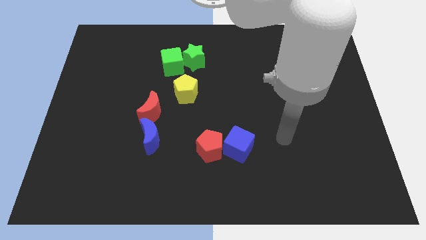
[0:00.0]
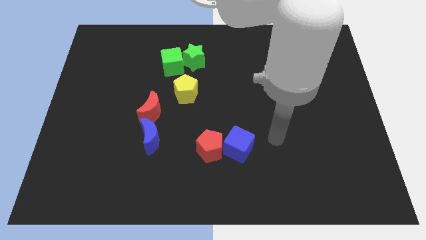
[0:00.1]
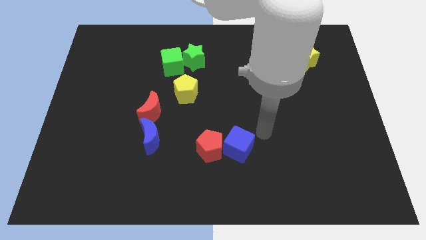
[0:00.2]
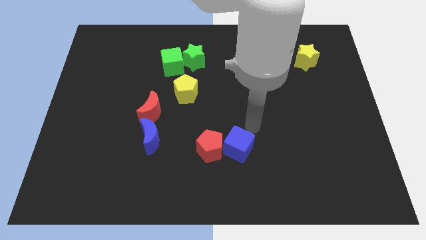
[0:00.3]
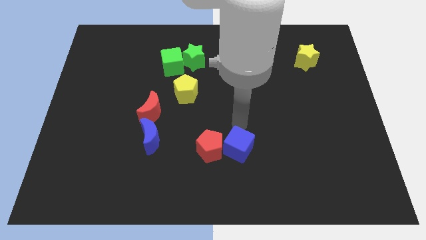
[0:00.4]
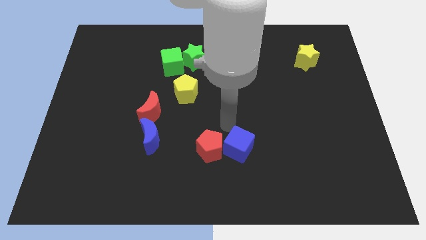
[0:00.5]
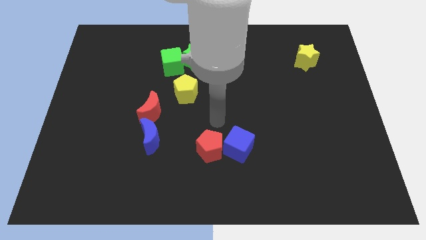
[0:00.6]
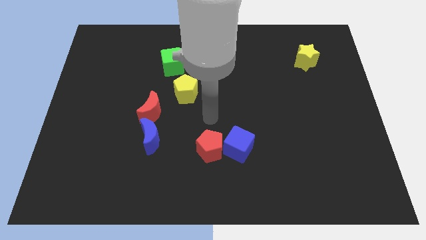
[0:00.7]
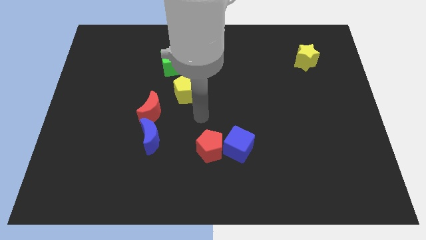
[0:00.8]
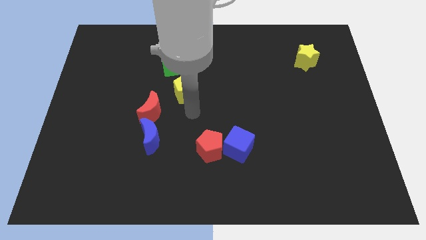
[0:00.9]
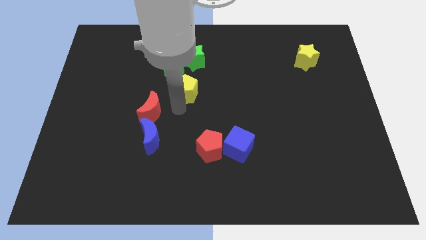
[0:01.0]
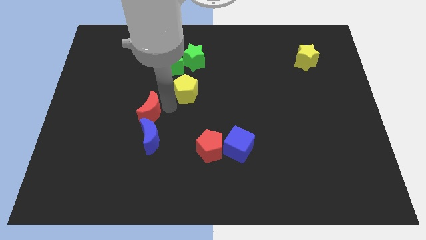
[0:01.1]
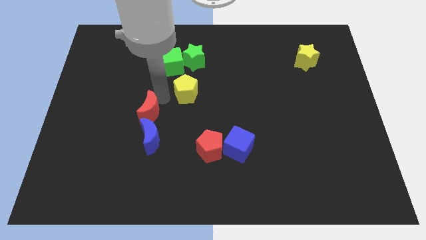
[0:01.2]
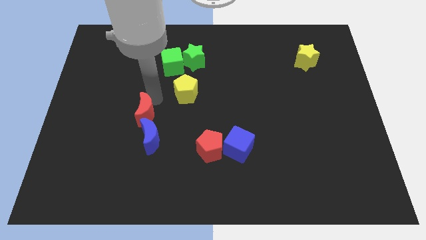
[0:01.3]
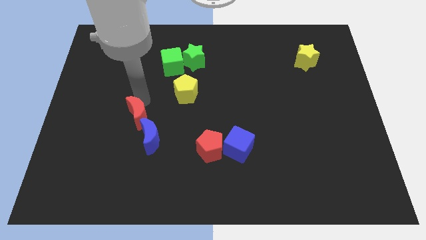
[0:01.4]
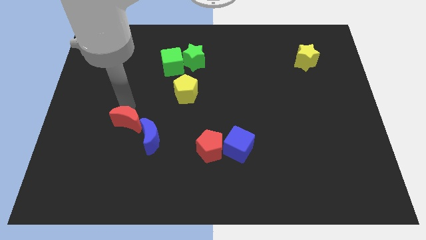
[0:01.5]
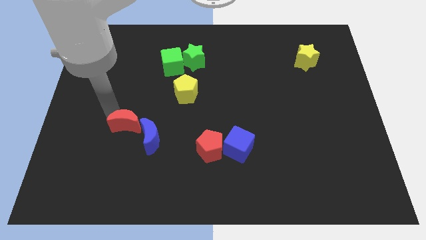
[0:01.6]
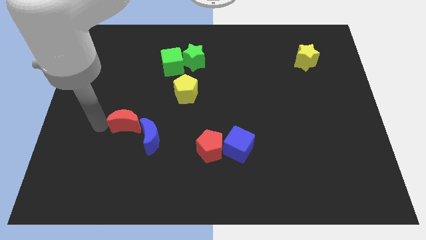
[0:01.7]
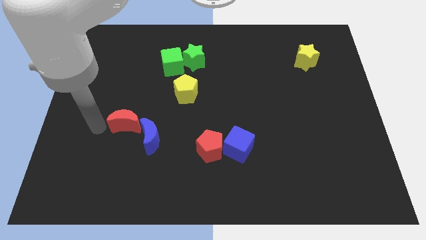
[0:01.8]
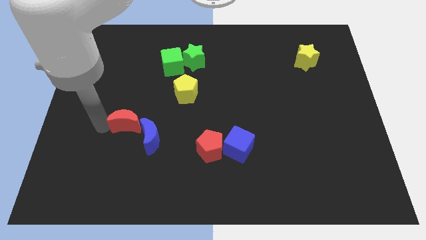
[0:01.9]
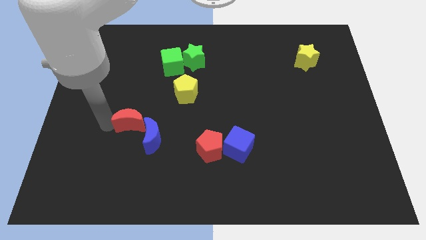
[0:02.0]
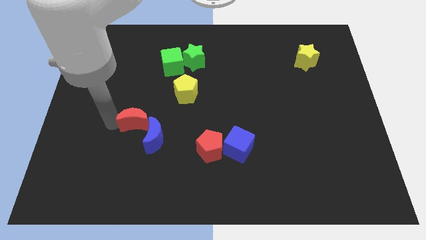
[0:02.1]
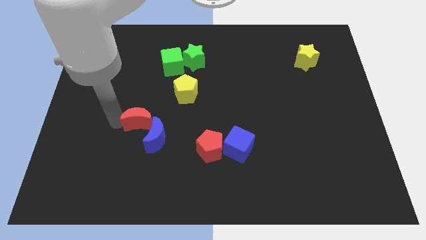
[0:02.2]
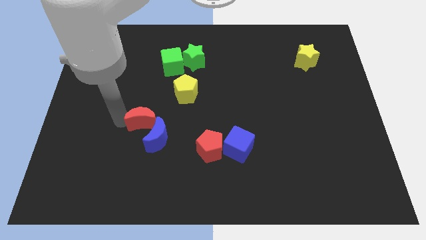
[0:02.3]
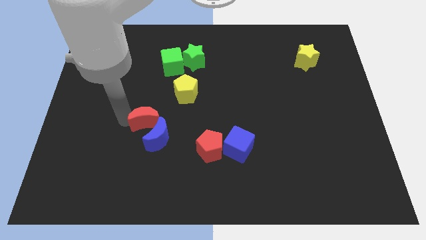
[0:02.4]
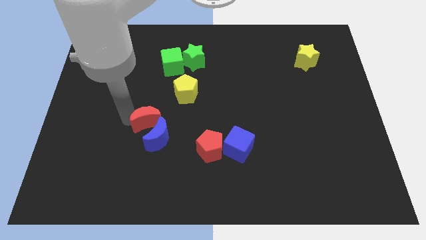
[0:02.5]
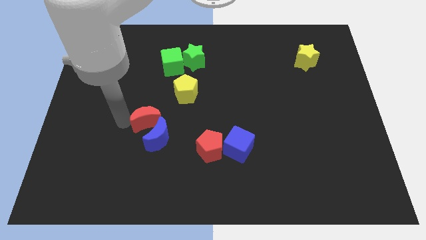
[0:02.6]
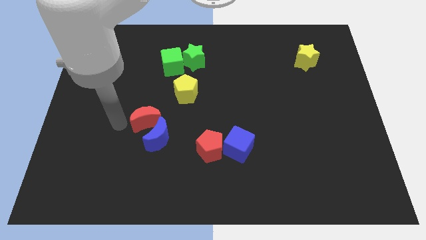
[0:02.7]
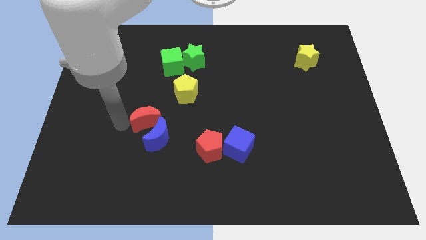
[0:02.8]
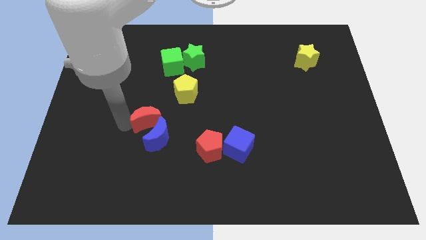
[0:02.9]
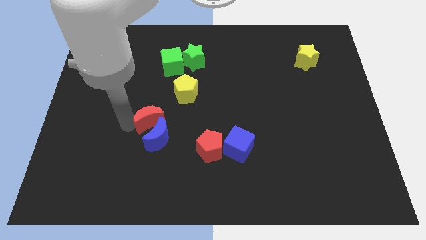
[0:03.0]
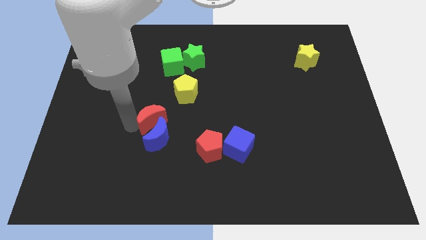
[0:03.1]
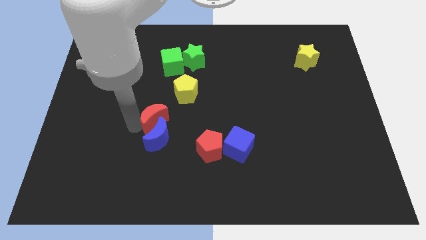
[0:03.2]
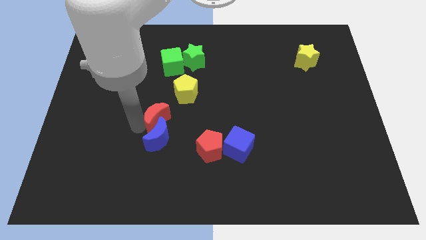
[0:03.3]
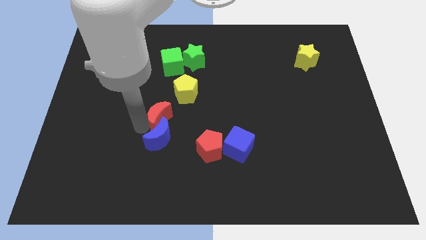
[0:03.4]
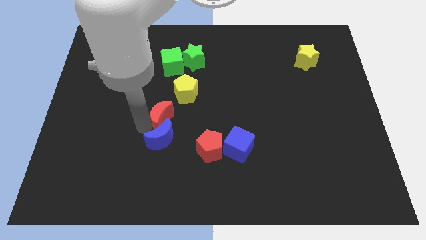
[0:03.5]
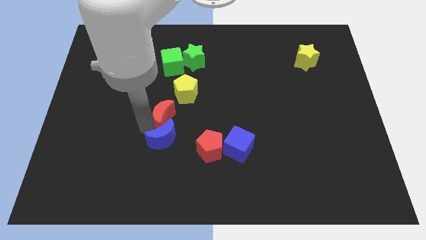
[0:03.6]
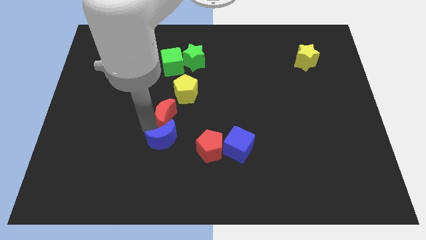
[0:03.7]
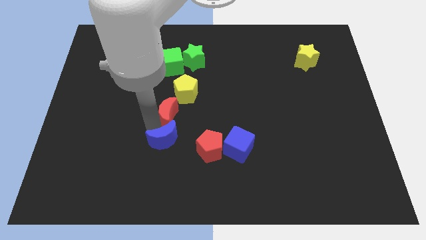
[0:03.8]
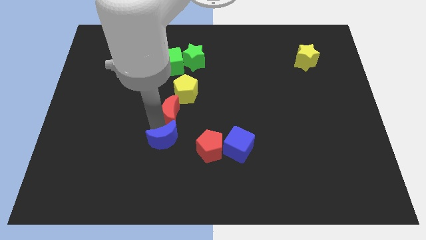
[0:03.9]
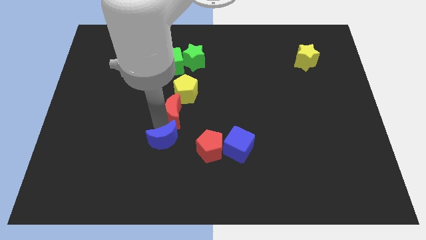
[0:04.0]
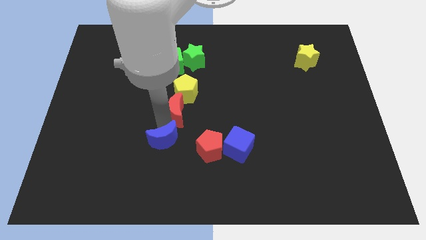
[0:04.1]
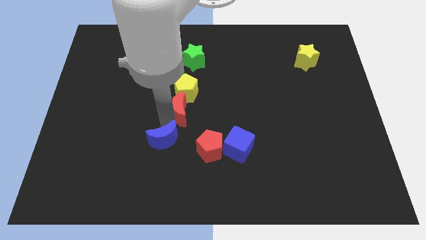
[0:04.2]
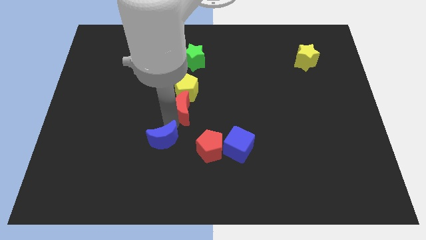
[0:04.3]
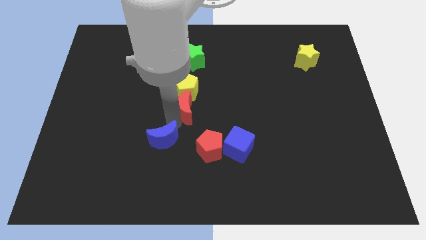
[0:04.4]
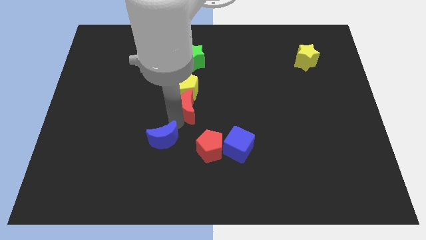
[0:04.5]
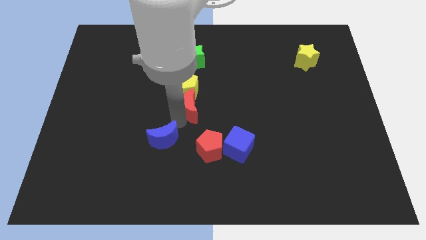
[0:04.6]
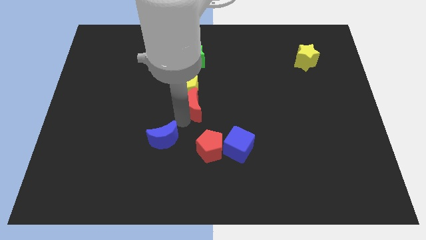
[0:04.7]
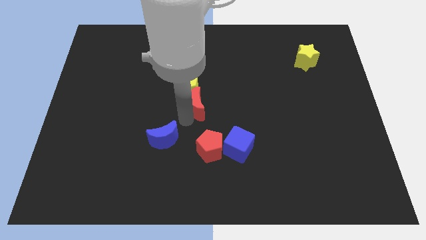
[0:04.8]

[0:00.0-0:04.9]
move the red moon somewhat diagonally up and right

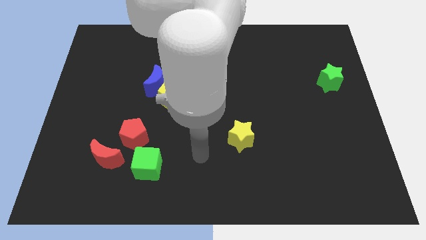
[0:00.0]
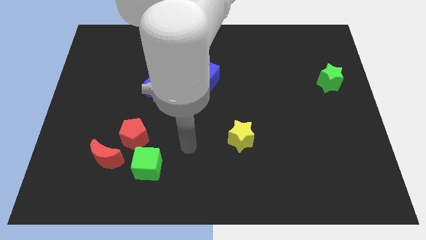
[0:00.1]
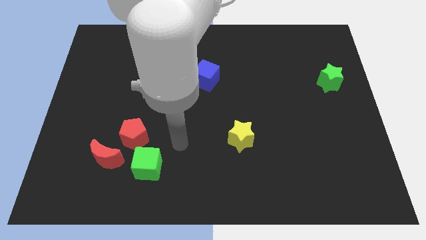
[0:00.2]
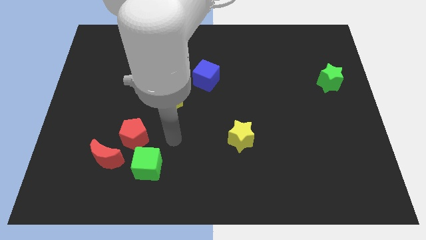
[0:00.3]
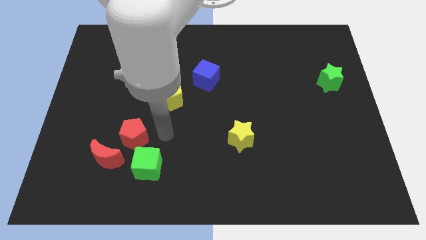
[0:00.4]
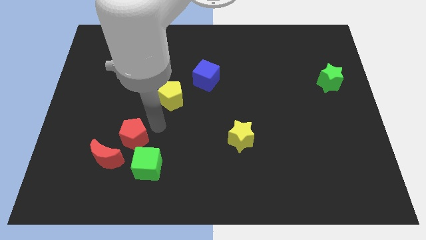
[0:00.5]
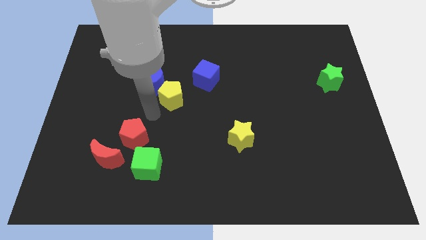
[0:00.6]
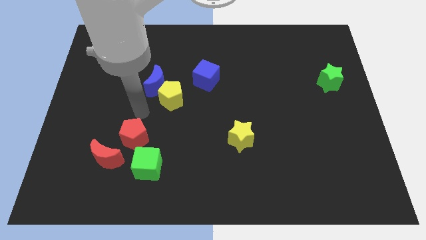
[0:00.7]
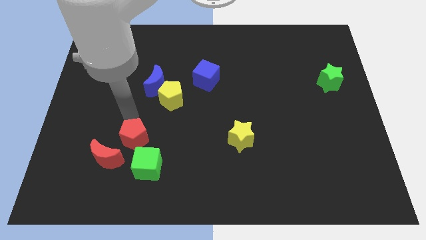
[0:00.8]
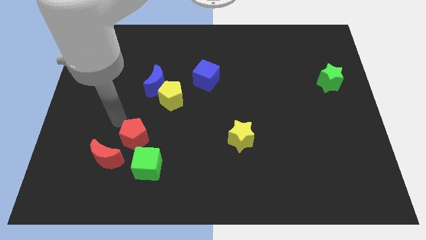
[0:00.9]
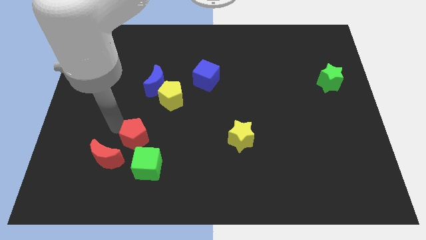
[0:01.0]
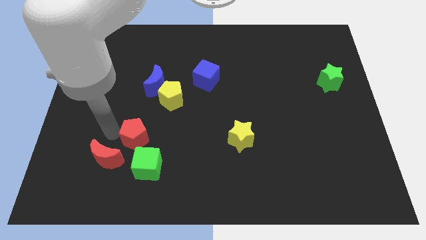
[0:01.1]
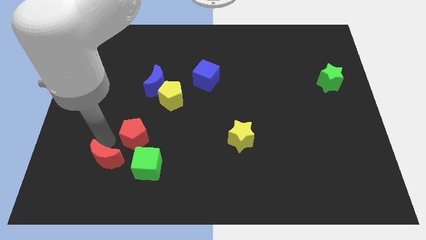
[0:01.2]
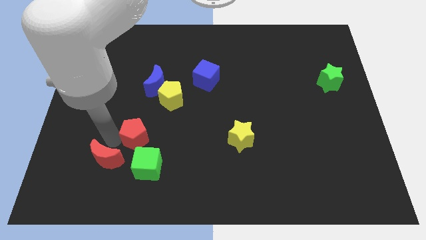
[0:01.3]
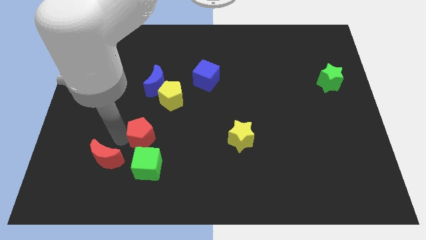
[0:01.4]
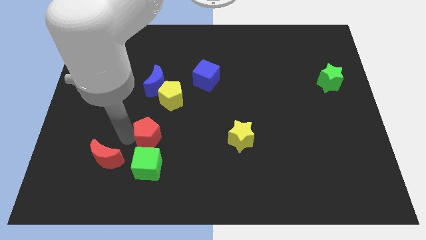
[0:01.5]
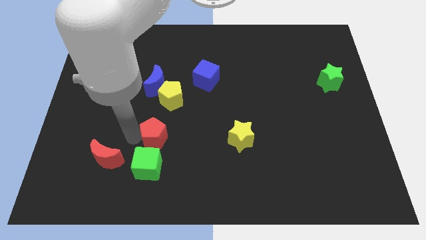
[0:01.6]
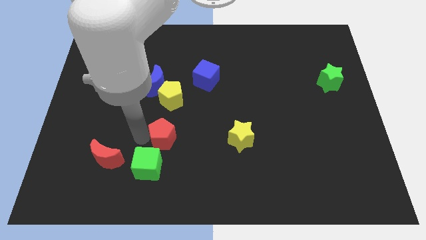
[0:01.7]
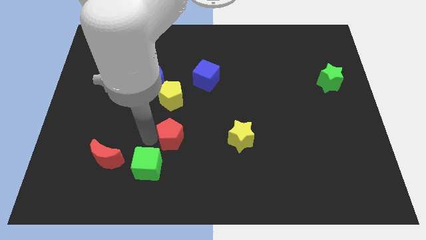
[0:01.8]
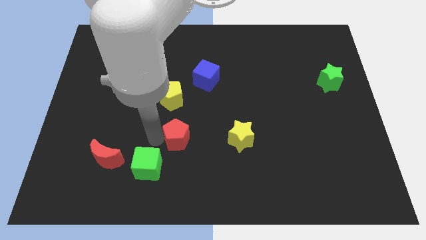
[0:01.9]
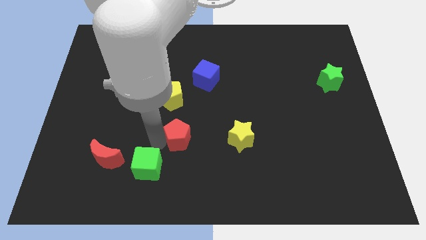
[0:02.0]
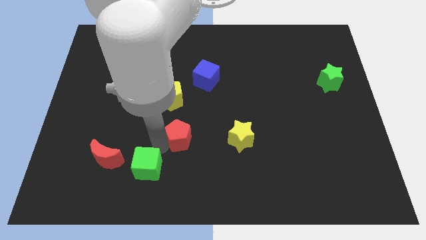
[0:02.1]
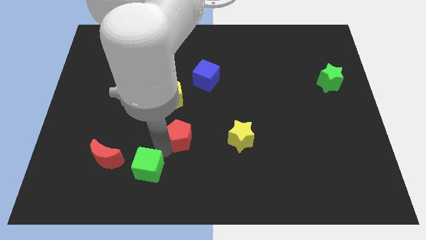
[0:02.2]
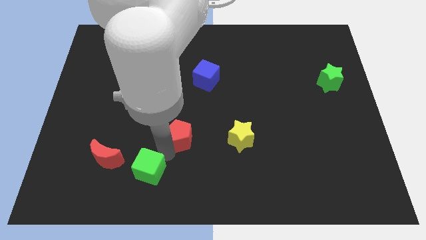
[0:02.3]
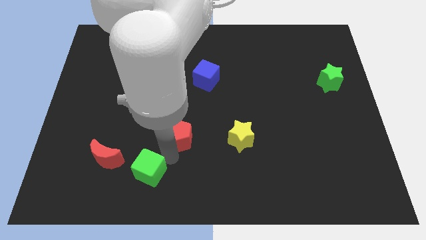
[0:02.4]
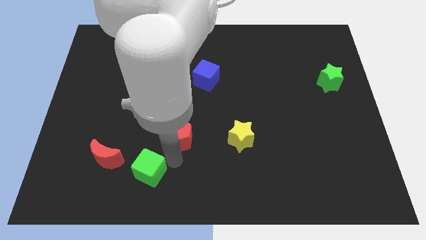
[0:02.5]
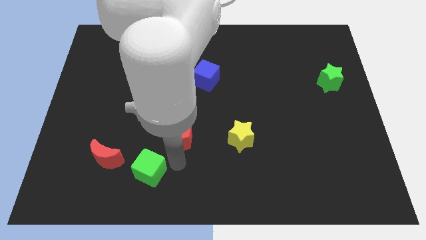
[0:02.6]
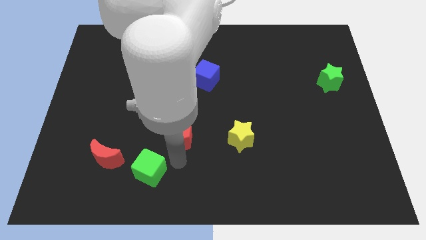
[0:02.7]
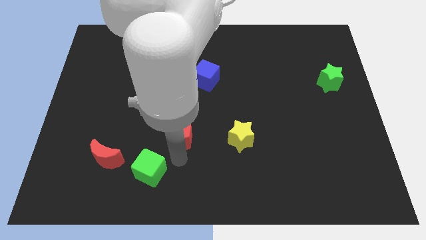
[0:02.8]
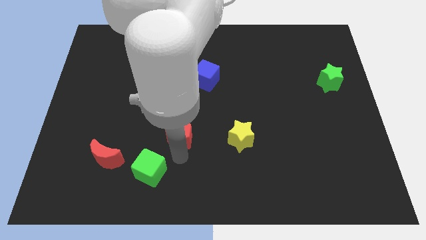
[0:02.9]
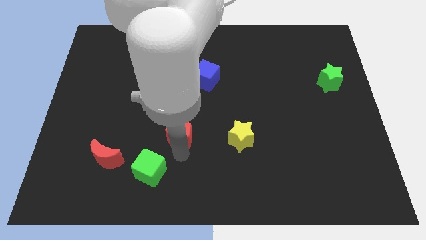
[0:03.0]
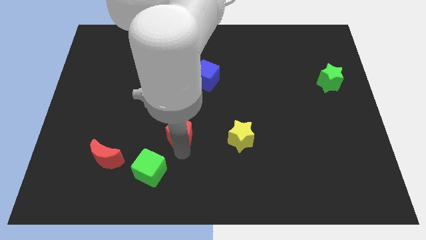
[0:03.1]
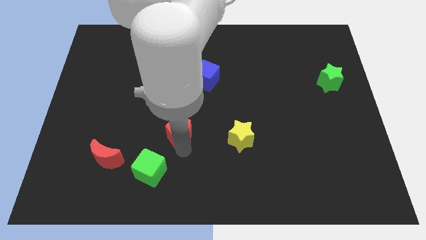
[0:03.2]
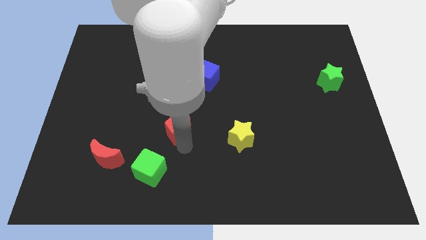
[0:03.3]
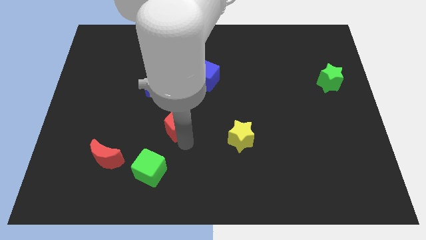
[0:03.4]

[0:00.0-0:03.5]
slightly slide the red pentagon diagonally up and to the right
